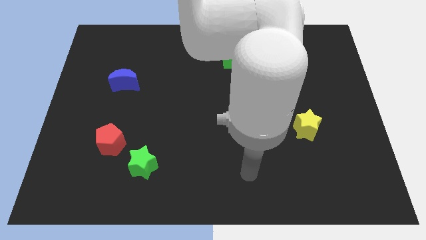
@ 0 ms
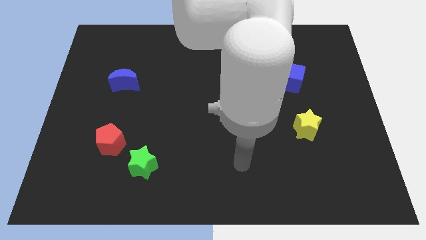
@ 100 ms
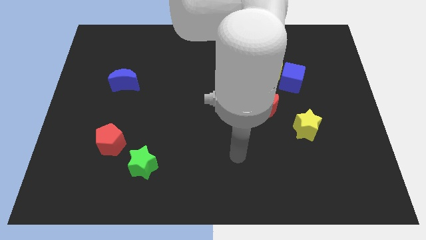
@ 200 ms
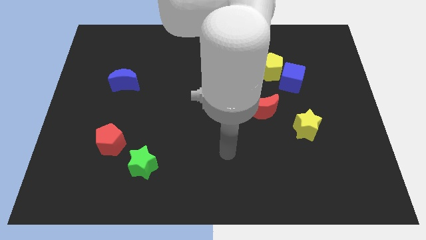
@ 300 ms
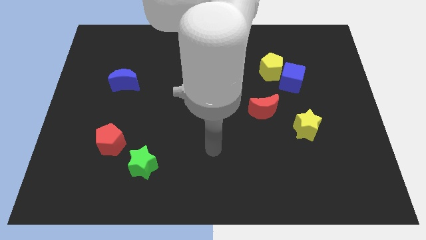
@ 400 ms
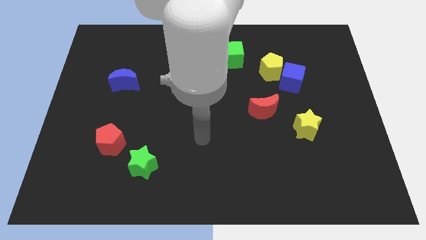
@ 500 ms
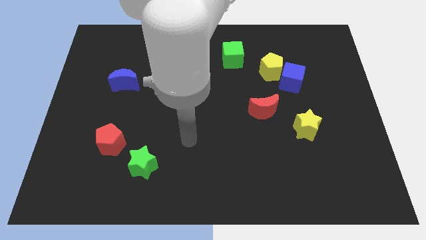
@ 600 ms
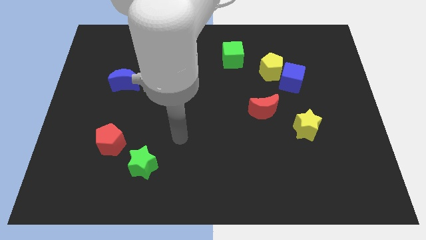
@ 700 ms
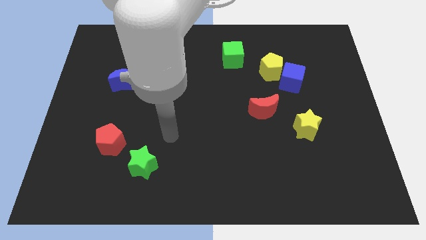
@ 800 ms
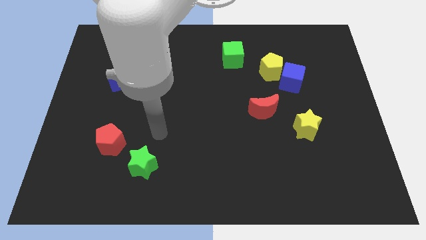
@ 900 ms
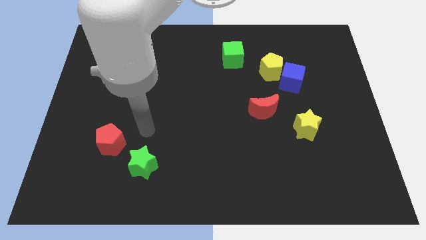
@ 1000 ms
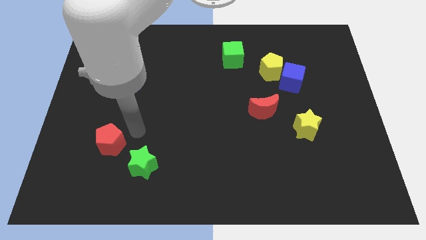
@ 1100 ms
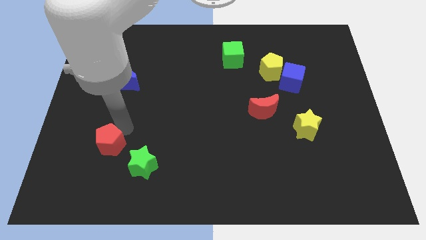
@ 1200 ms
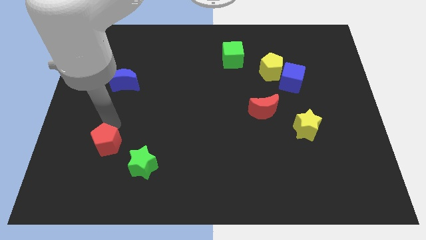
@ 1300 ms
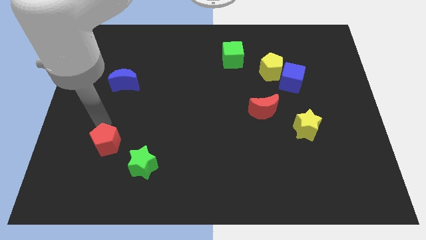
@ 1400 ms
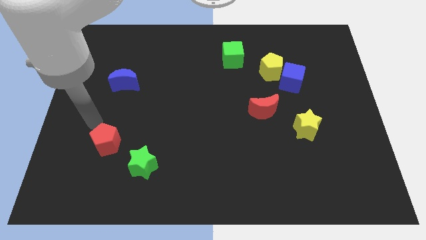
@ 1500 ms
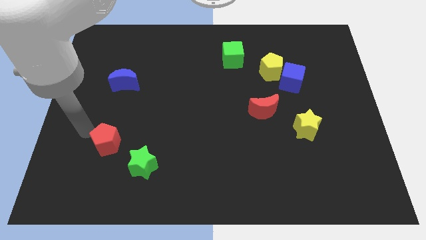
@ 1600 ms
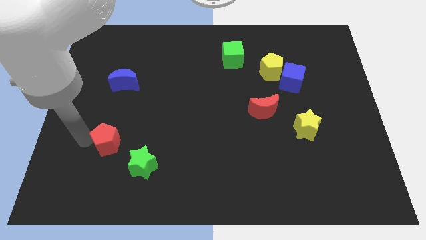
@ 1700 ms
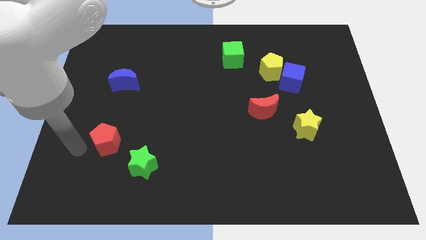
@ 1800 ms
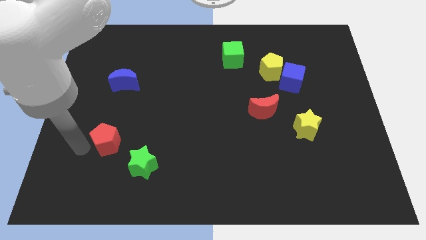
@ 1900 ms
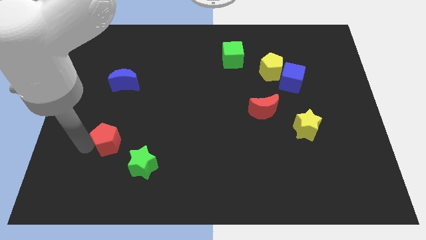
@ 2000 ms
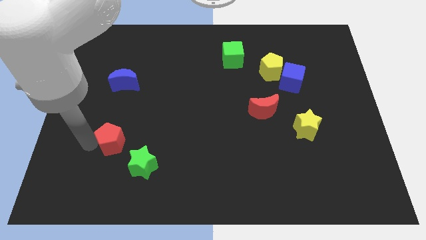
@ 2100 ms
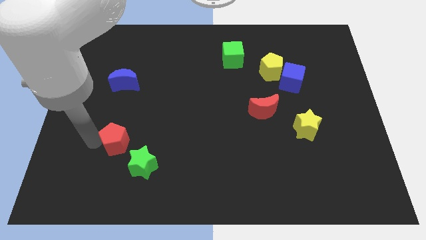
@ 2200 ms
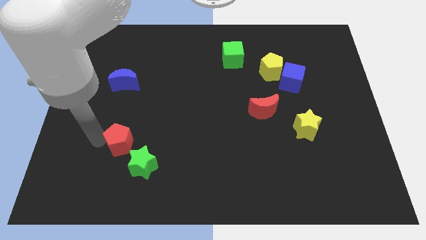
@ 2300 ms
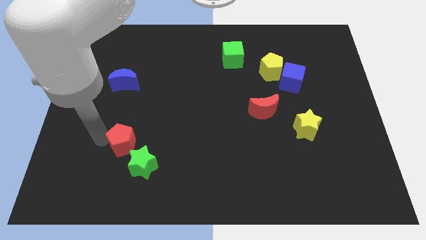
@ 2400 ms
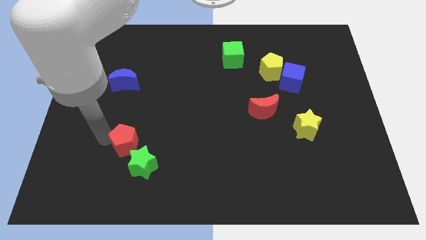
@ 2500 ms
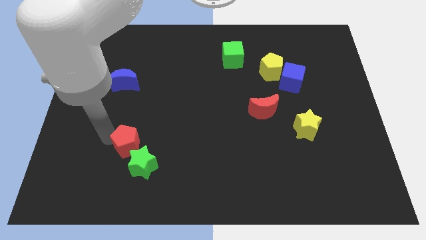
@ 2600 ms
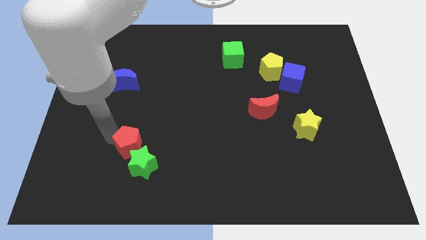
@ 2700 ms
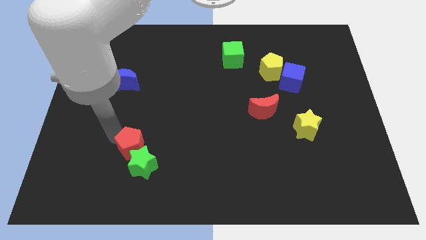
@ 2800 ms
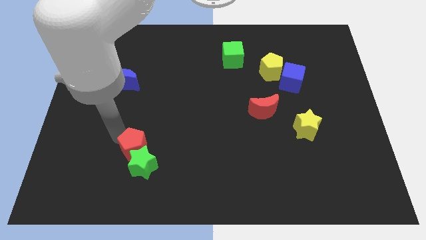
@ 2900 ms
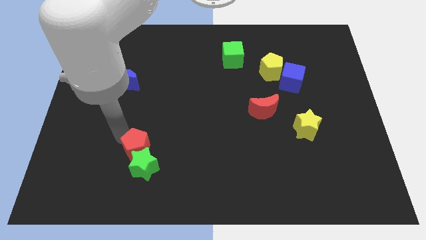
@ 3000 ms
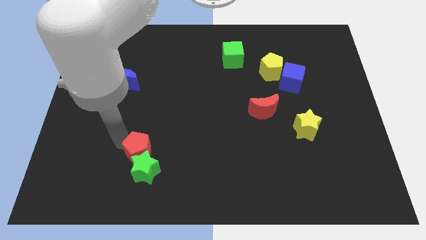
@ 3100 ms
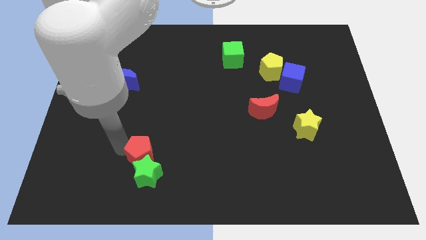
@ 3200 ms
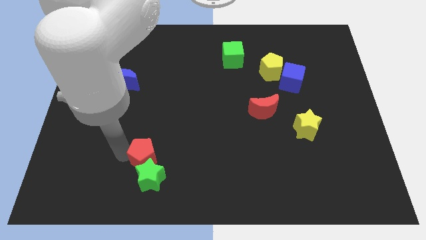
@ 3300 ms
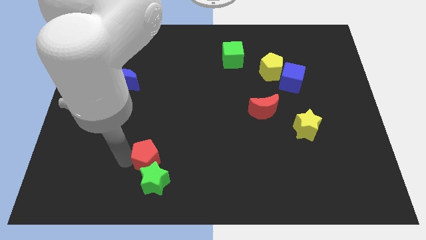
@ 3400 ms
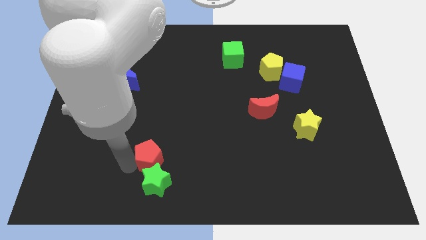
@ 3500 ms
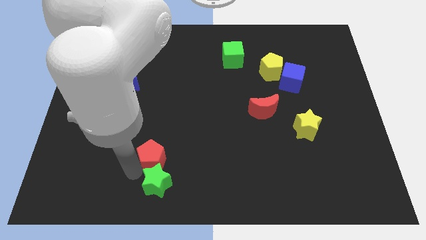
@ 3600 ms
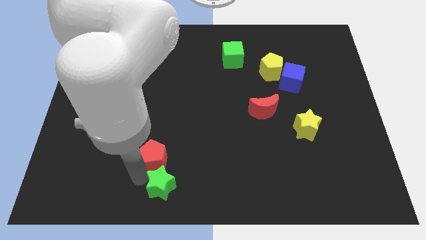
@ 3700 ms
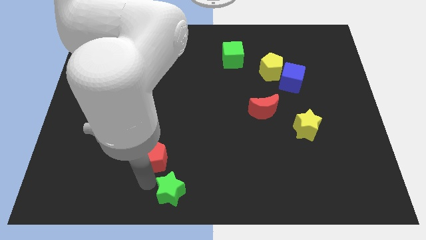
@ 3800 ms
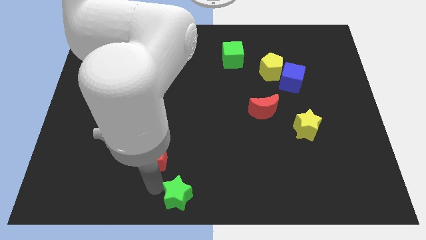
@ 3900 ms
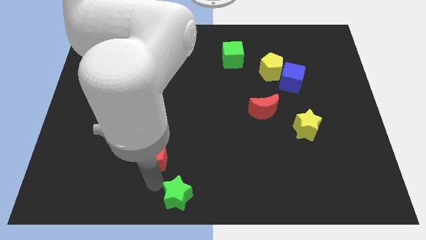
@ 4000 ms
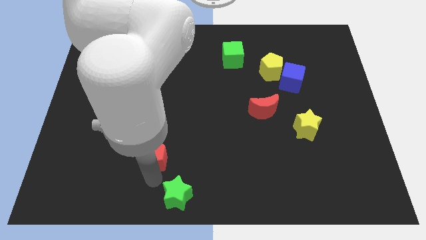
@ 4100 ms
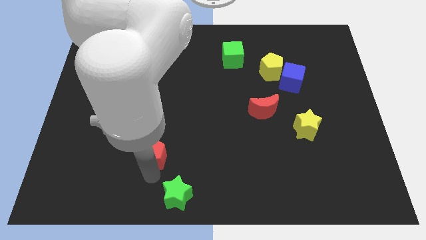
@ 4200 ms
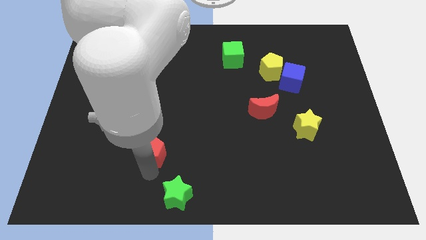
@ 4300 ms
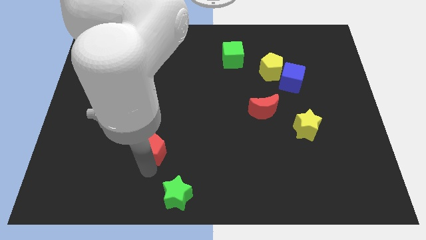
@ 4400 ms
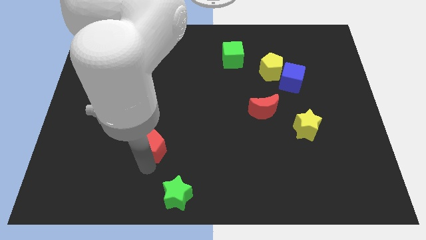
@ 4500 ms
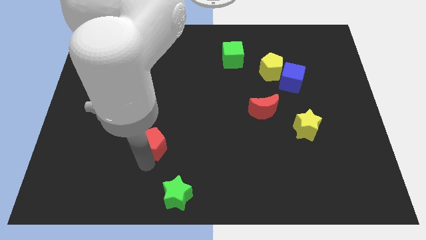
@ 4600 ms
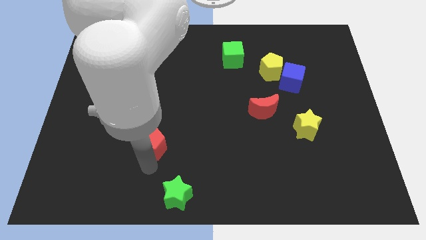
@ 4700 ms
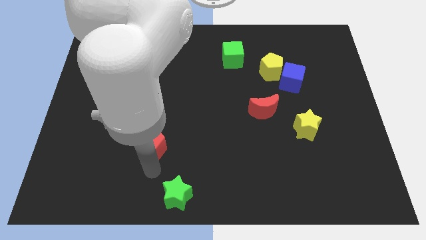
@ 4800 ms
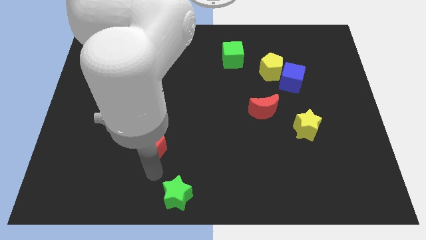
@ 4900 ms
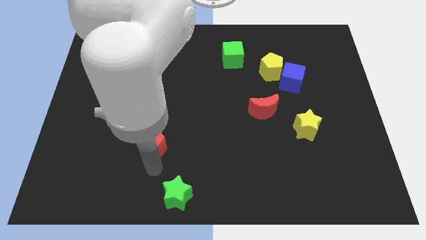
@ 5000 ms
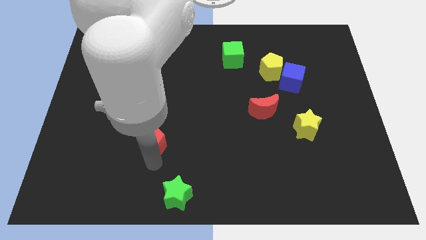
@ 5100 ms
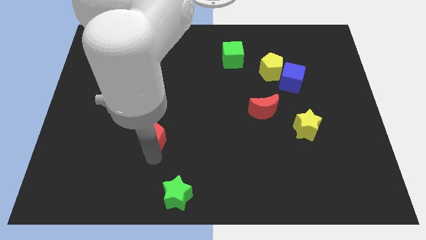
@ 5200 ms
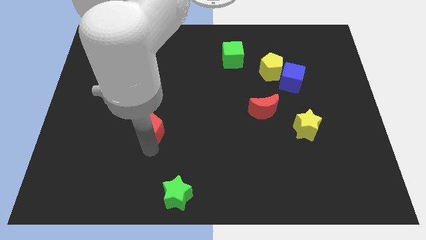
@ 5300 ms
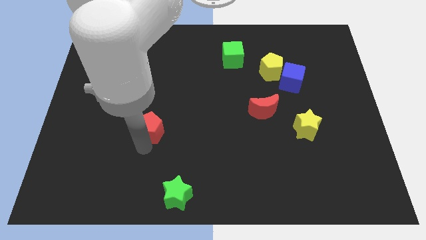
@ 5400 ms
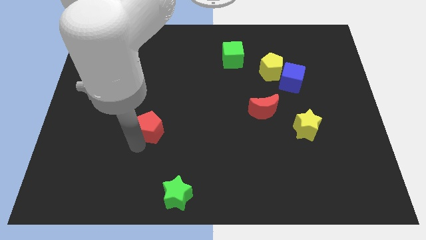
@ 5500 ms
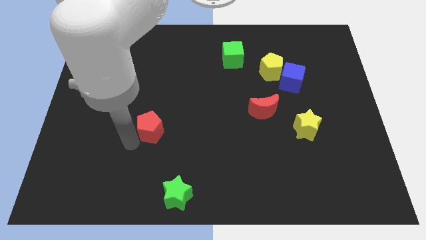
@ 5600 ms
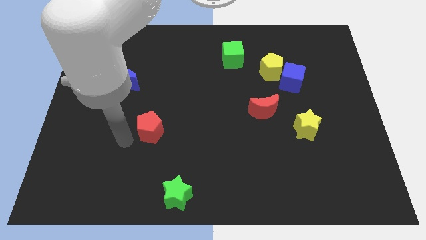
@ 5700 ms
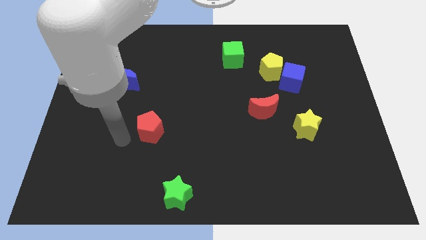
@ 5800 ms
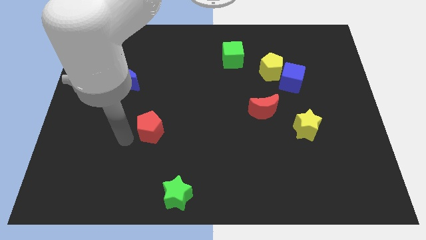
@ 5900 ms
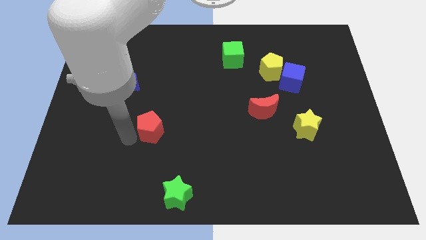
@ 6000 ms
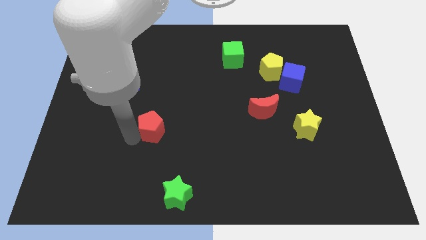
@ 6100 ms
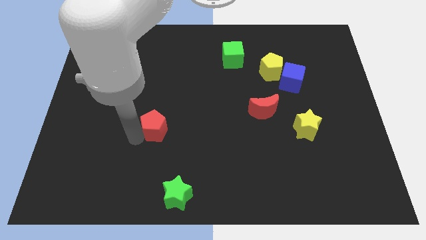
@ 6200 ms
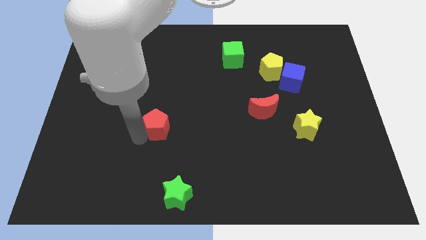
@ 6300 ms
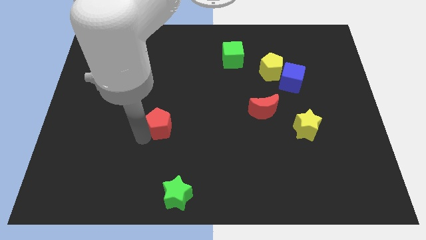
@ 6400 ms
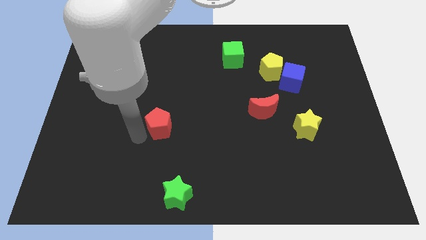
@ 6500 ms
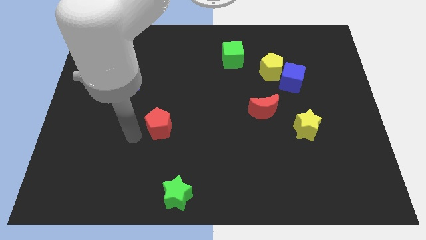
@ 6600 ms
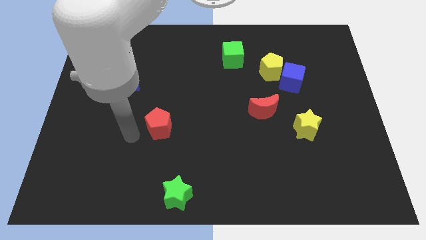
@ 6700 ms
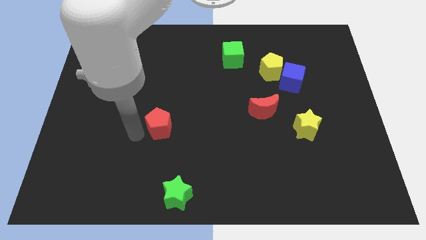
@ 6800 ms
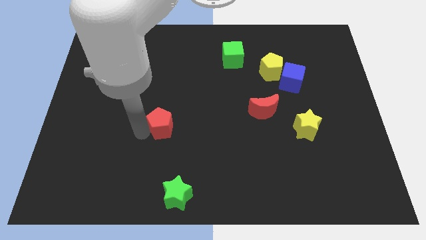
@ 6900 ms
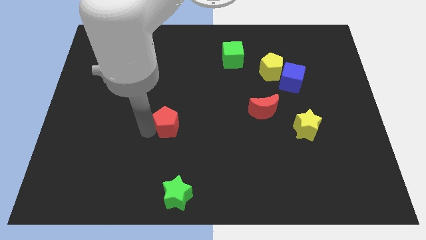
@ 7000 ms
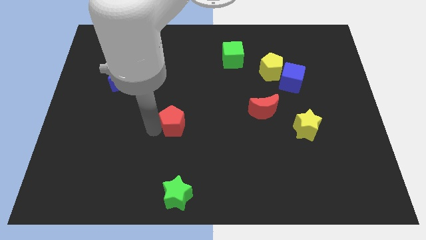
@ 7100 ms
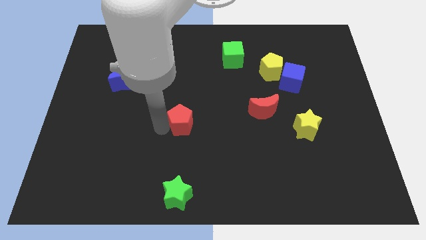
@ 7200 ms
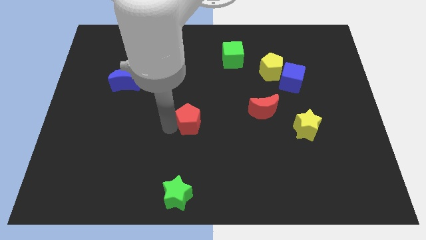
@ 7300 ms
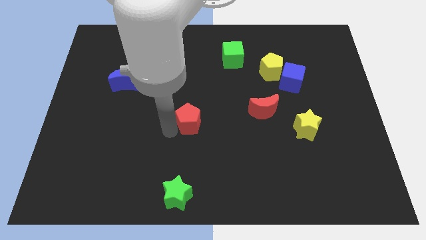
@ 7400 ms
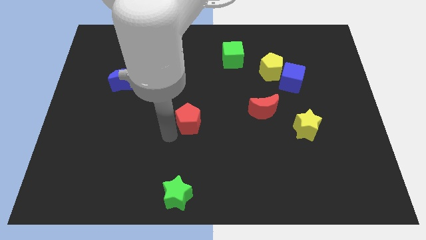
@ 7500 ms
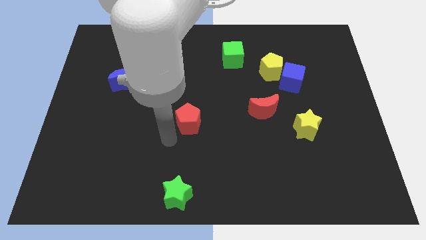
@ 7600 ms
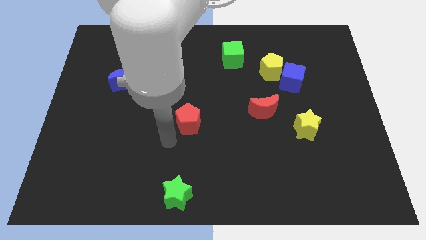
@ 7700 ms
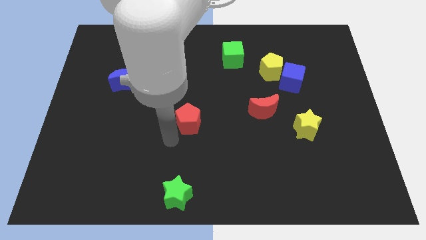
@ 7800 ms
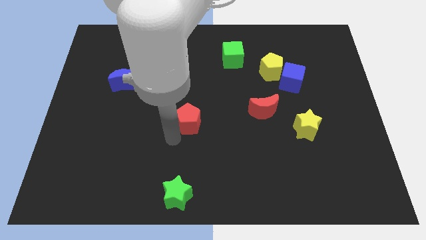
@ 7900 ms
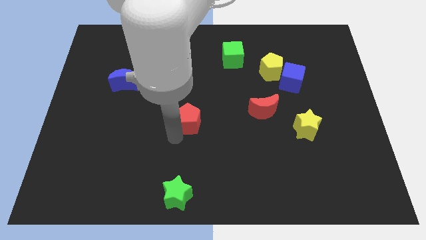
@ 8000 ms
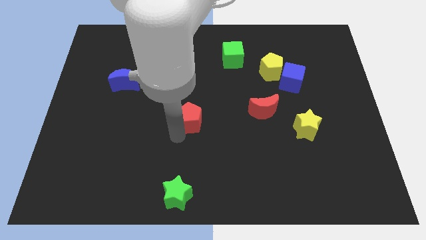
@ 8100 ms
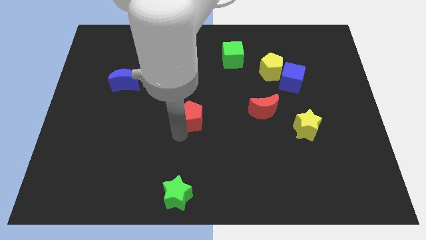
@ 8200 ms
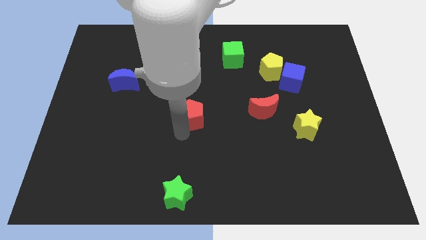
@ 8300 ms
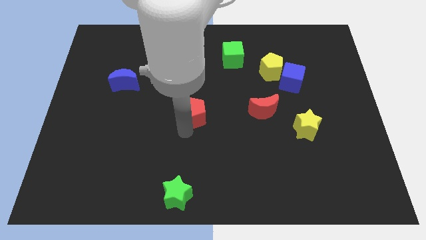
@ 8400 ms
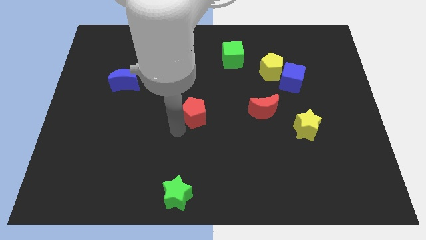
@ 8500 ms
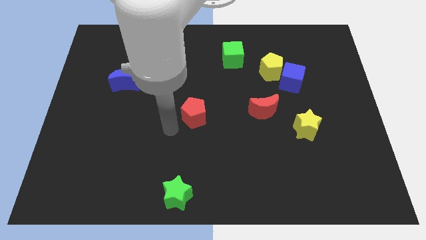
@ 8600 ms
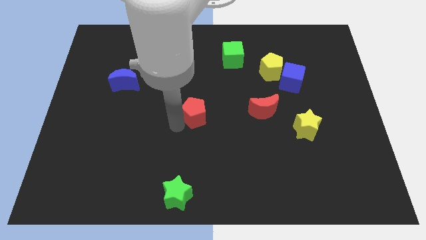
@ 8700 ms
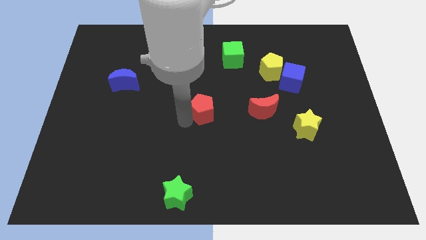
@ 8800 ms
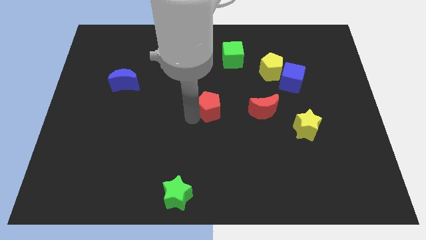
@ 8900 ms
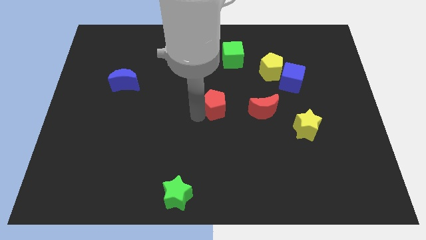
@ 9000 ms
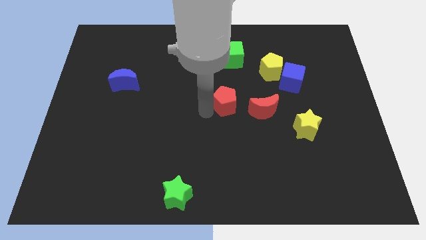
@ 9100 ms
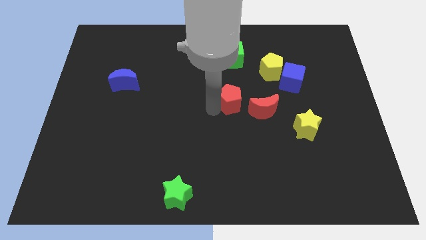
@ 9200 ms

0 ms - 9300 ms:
move the red pentagon to the top left side of the red moon
